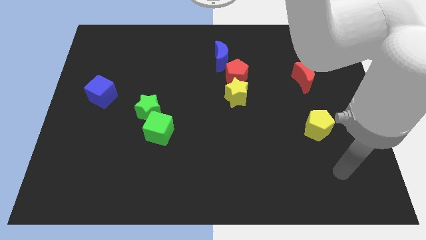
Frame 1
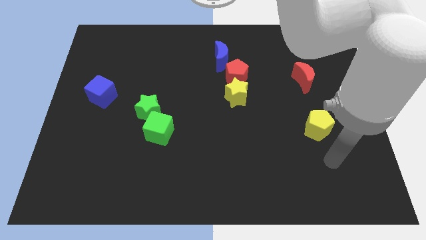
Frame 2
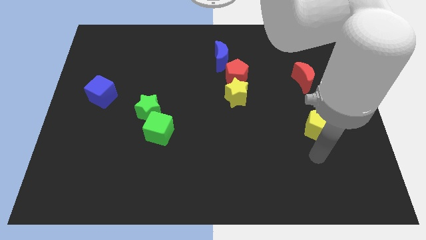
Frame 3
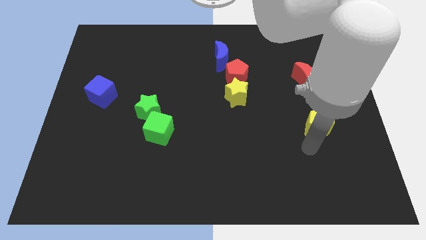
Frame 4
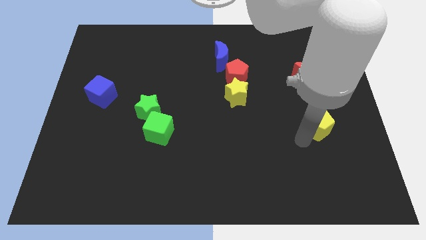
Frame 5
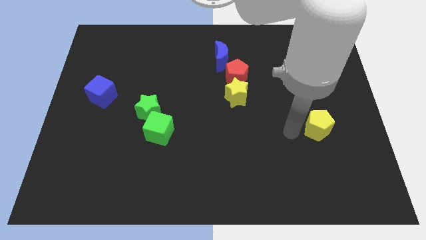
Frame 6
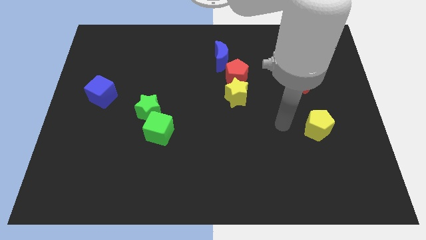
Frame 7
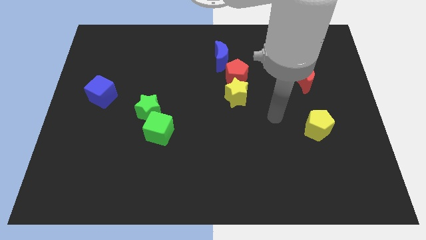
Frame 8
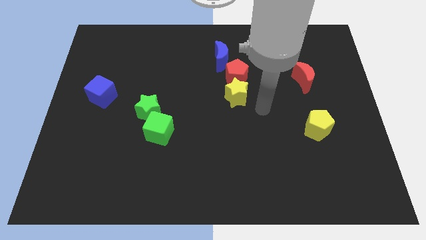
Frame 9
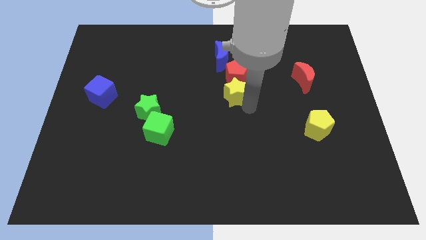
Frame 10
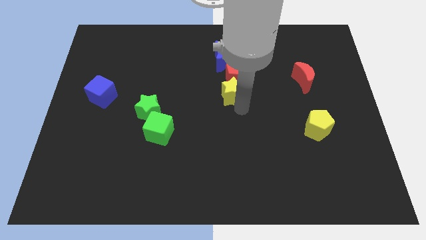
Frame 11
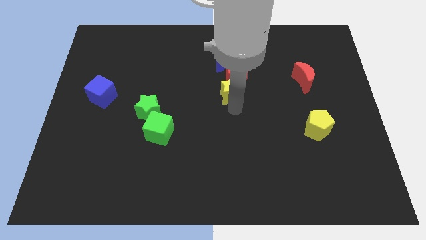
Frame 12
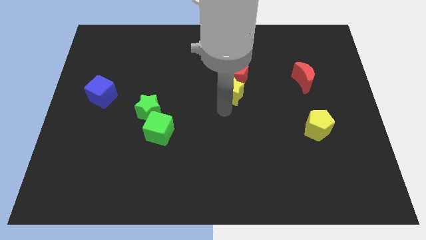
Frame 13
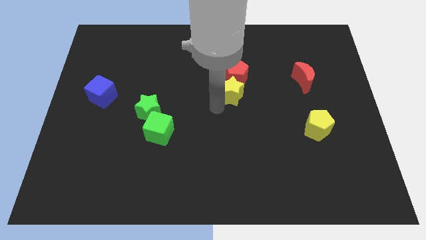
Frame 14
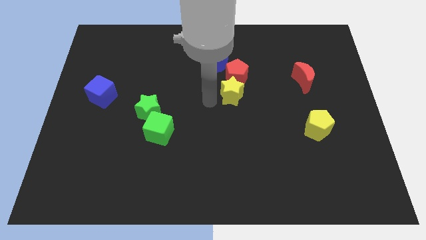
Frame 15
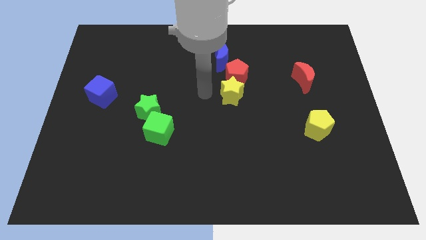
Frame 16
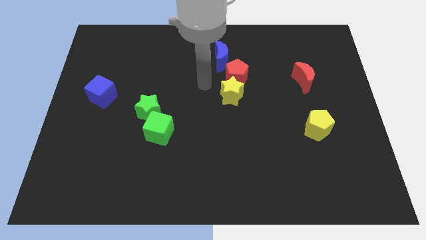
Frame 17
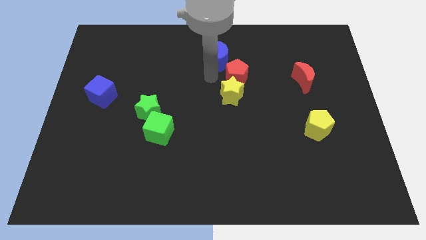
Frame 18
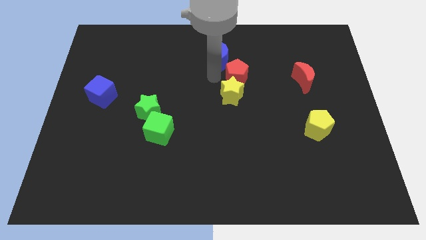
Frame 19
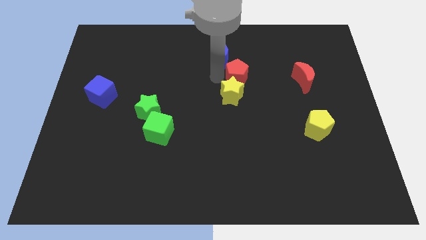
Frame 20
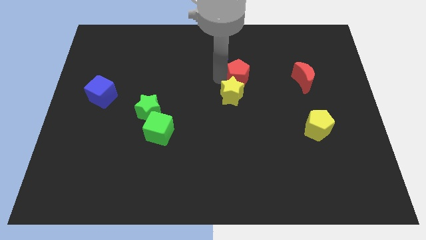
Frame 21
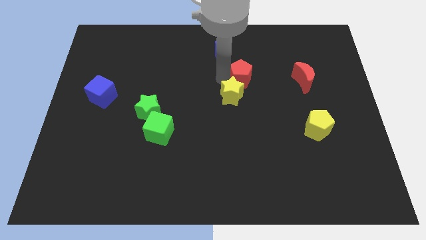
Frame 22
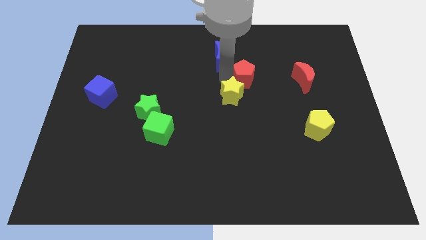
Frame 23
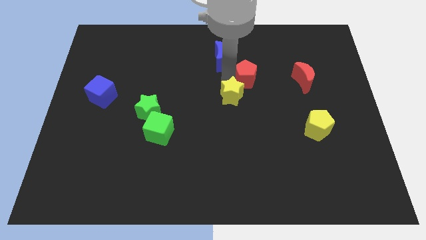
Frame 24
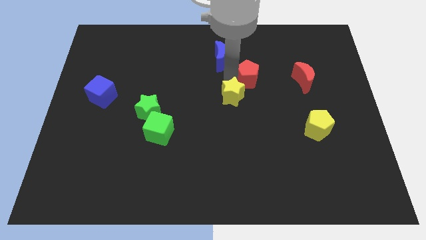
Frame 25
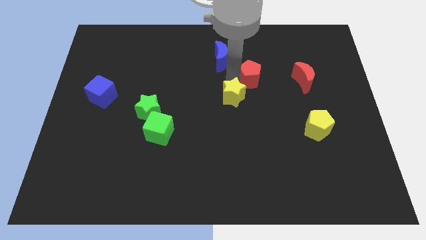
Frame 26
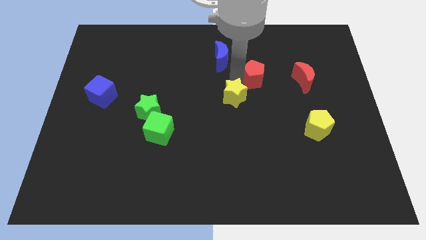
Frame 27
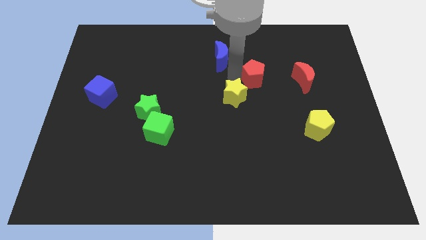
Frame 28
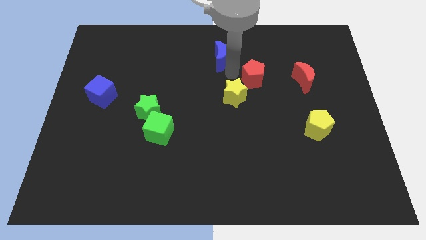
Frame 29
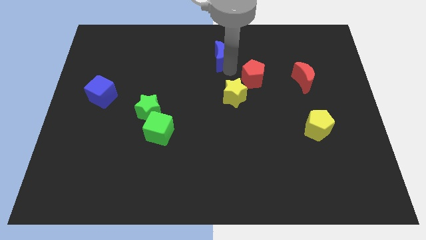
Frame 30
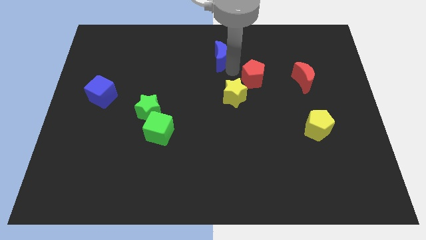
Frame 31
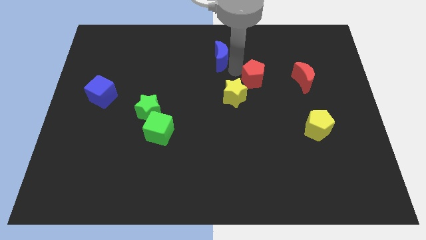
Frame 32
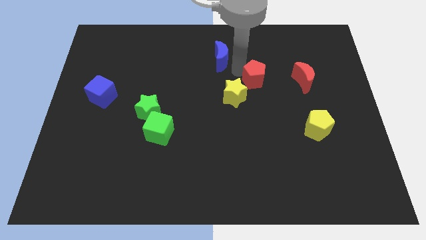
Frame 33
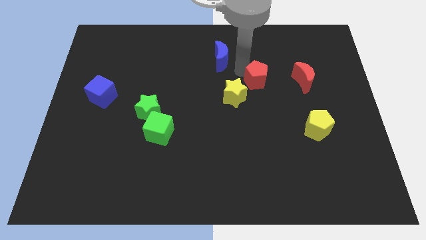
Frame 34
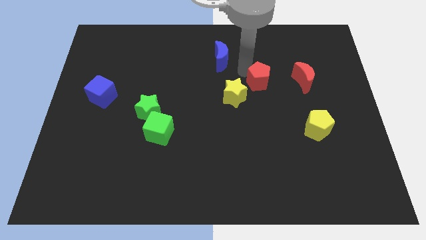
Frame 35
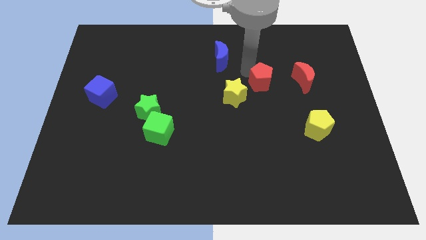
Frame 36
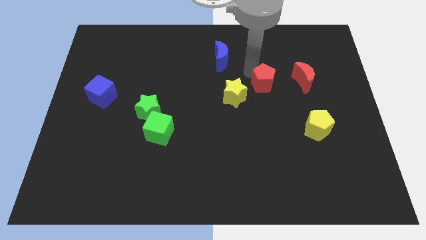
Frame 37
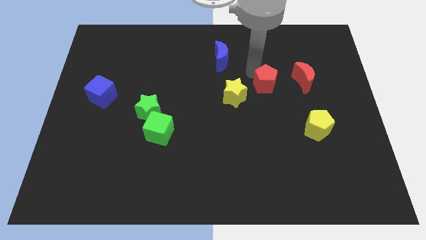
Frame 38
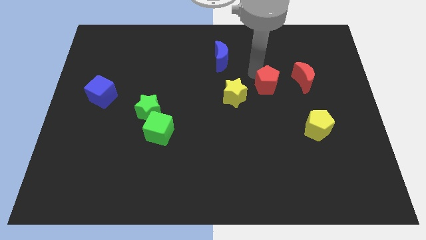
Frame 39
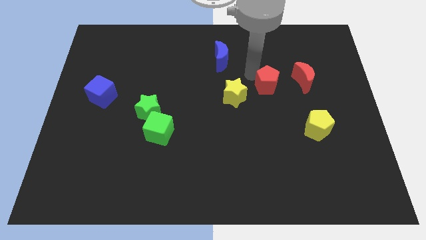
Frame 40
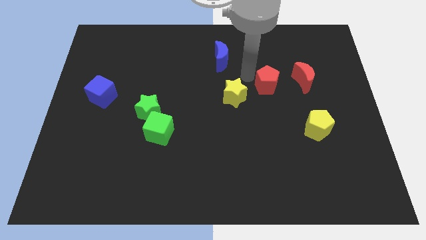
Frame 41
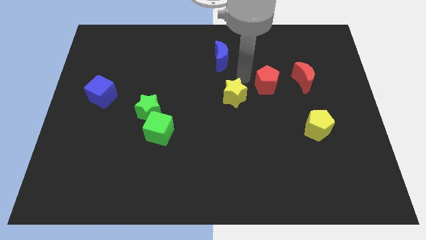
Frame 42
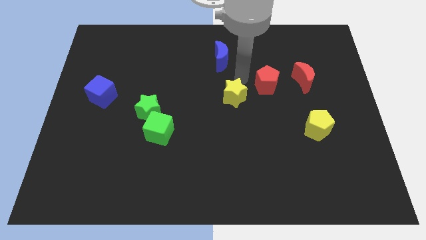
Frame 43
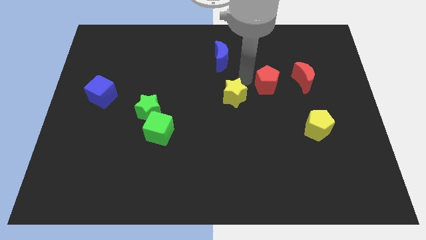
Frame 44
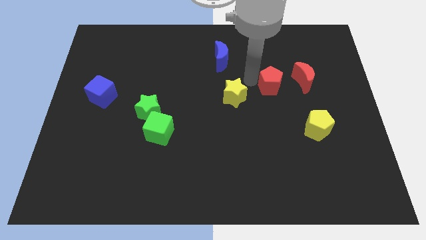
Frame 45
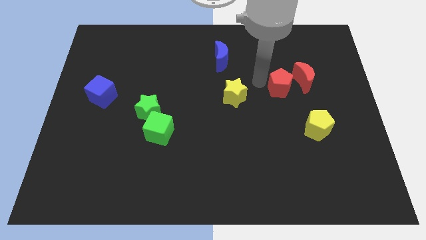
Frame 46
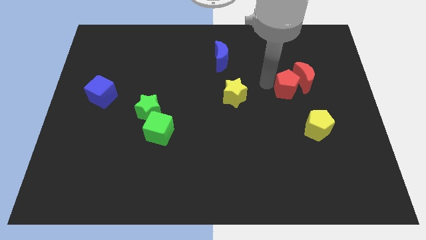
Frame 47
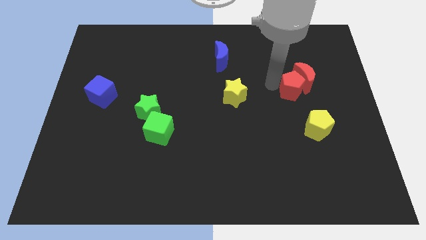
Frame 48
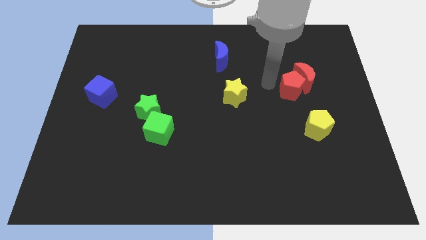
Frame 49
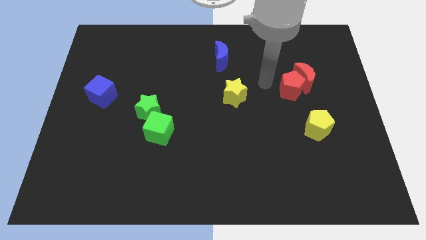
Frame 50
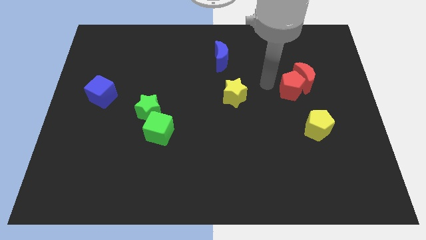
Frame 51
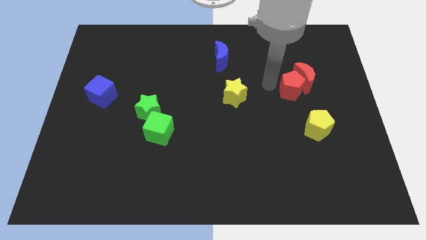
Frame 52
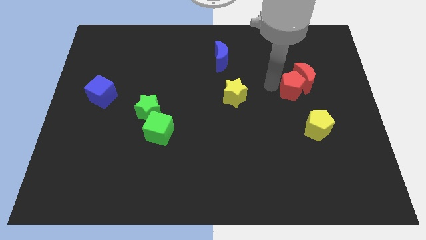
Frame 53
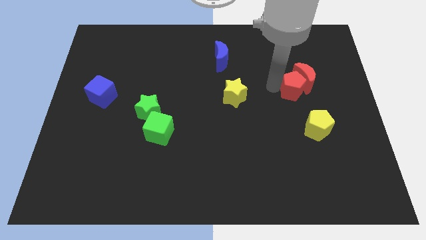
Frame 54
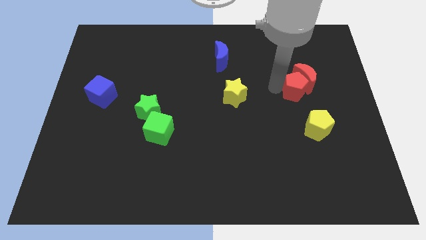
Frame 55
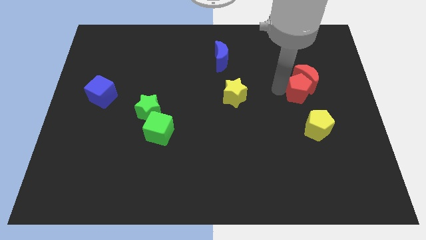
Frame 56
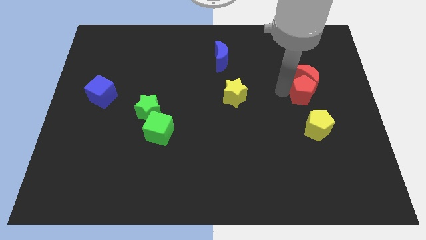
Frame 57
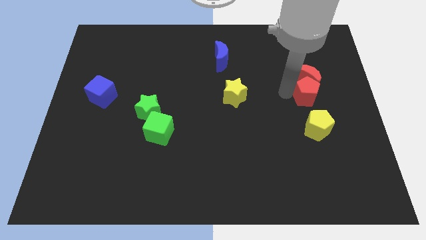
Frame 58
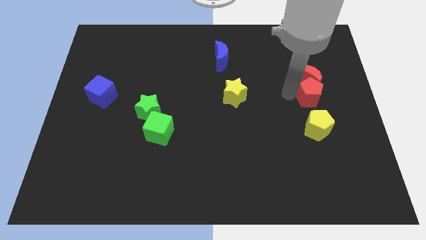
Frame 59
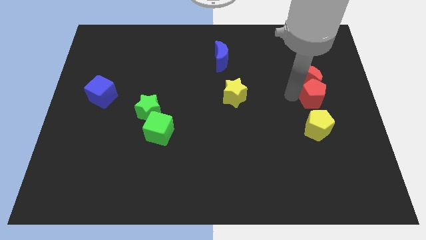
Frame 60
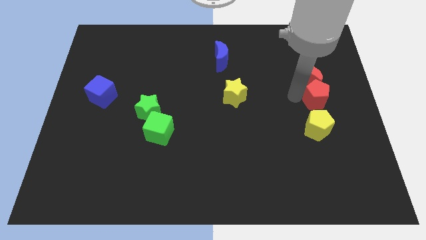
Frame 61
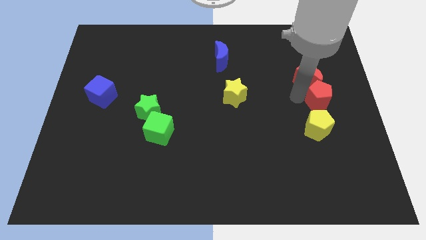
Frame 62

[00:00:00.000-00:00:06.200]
move the red pentagon to the right side
